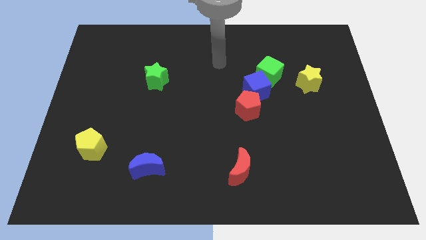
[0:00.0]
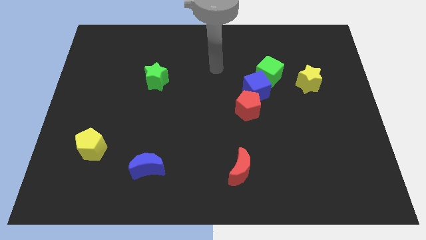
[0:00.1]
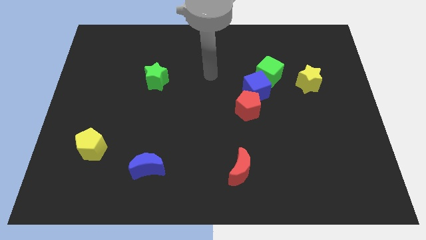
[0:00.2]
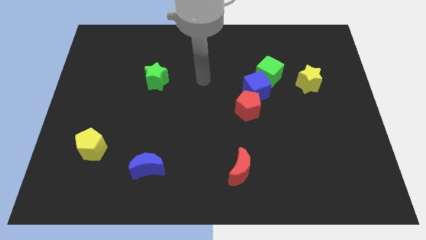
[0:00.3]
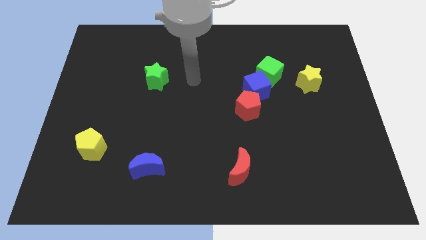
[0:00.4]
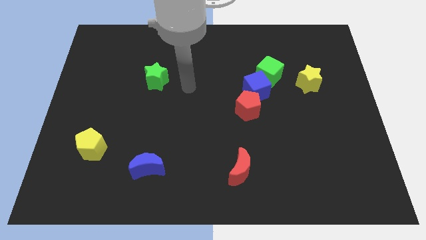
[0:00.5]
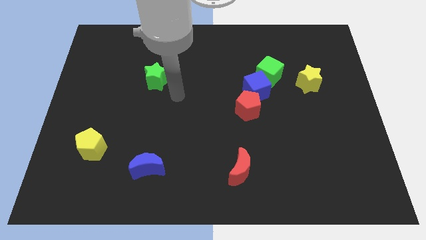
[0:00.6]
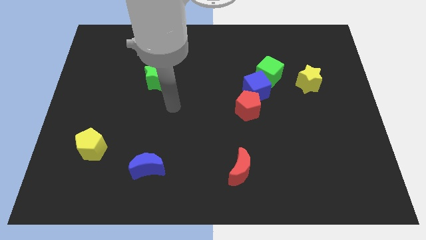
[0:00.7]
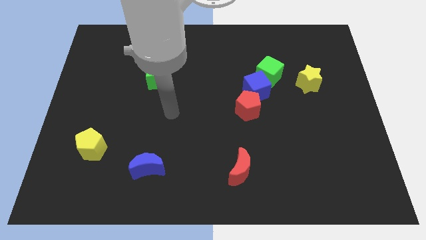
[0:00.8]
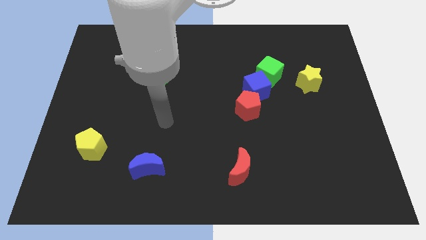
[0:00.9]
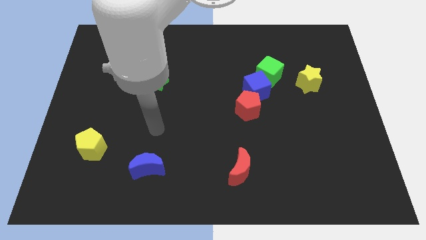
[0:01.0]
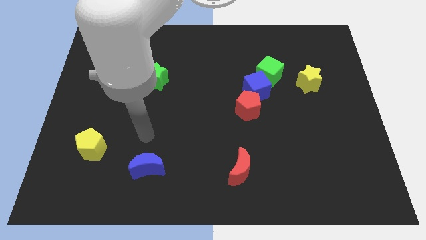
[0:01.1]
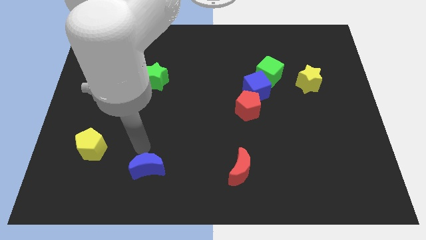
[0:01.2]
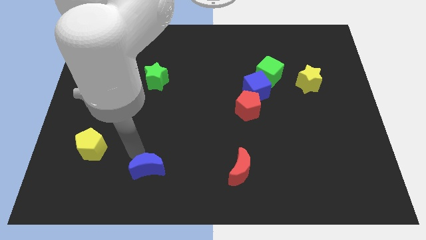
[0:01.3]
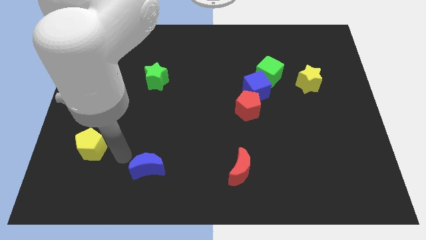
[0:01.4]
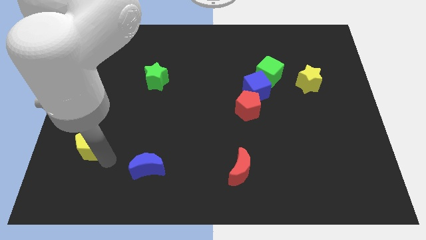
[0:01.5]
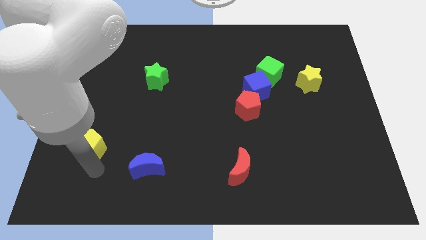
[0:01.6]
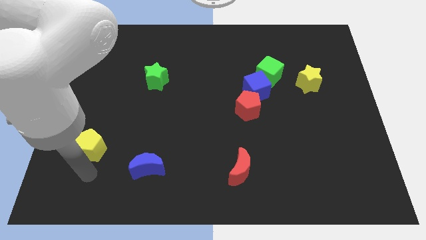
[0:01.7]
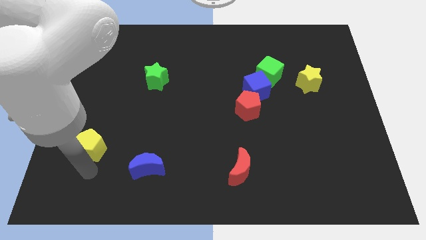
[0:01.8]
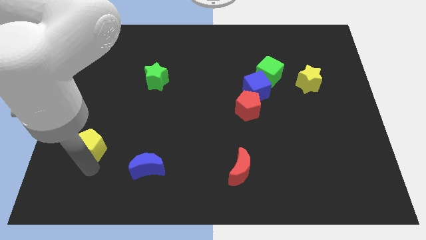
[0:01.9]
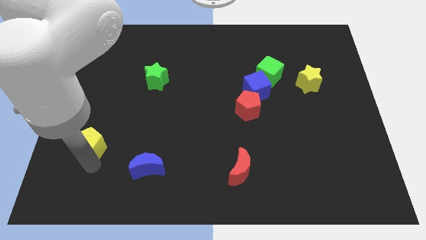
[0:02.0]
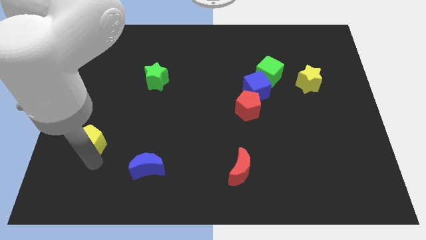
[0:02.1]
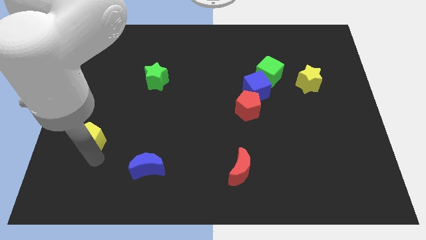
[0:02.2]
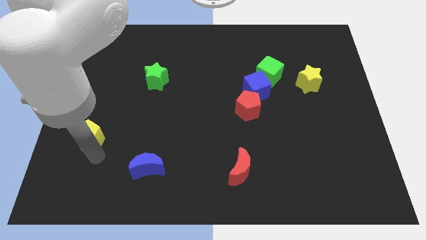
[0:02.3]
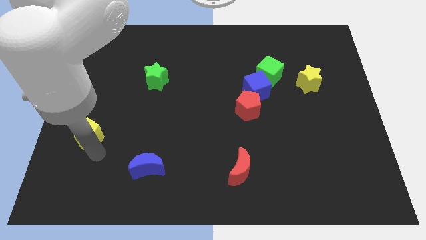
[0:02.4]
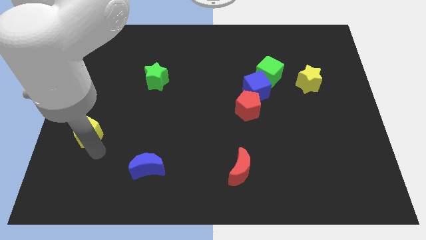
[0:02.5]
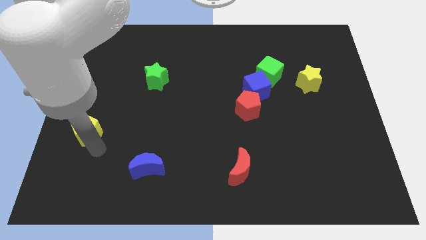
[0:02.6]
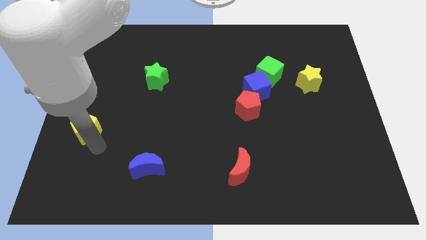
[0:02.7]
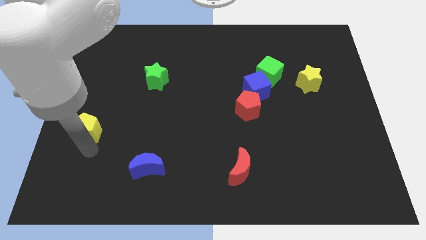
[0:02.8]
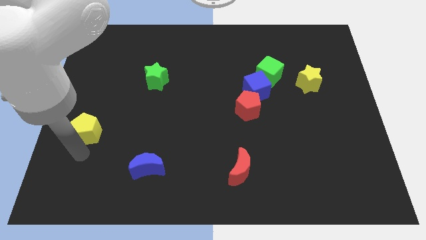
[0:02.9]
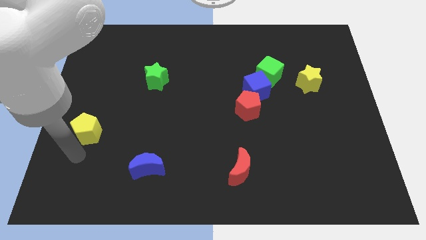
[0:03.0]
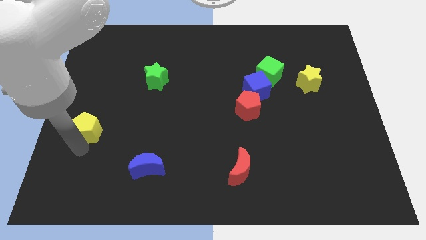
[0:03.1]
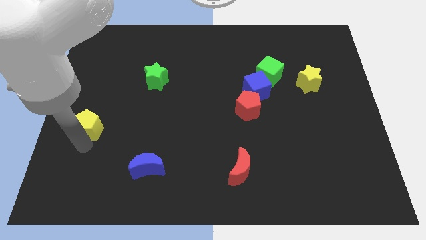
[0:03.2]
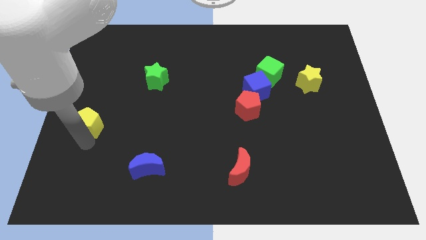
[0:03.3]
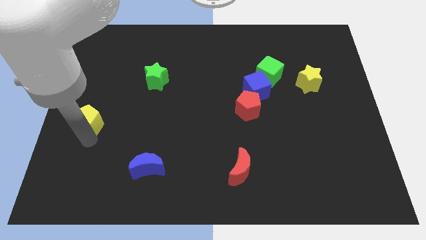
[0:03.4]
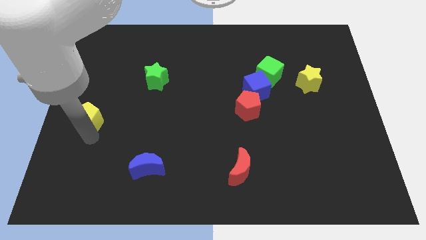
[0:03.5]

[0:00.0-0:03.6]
slightly slide the yellow pentagon upwards

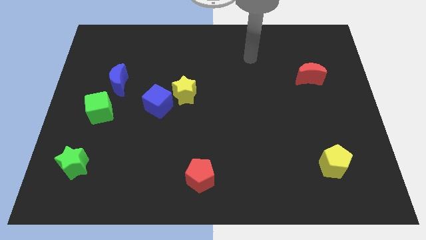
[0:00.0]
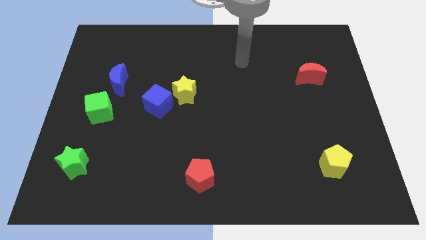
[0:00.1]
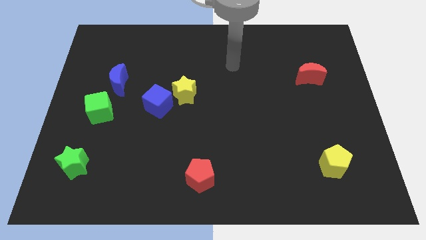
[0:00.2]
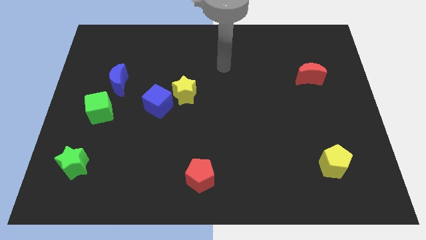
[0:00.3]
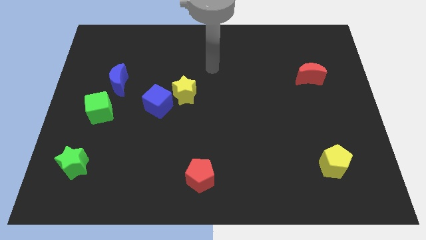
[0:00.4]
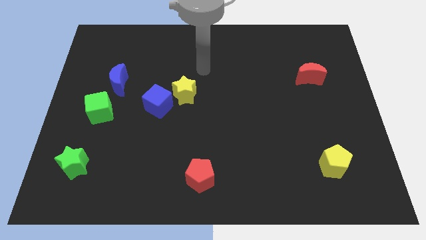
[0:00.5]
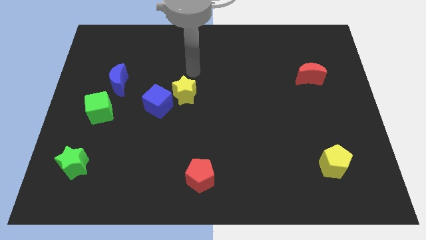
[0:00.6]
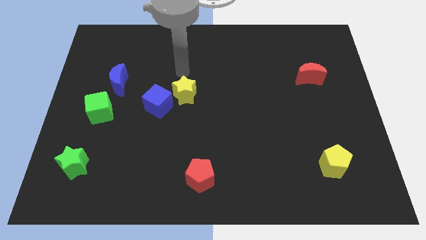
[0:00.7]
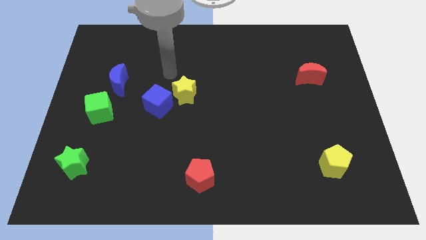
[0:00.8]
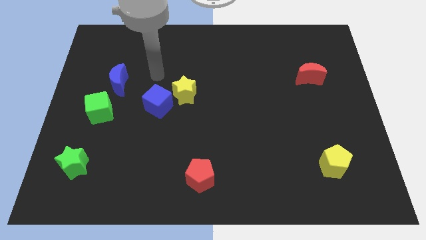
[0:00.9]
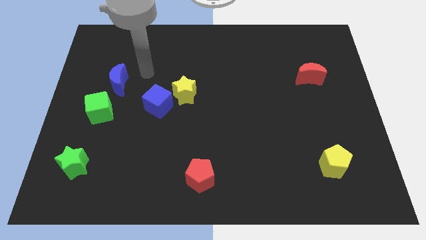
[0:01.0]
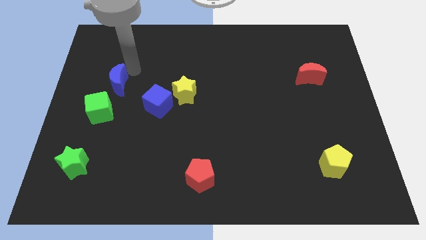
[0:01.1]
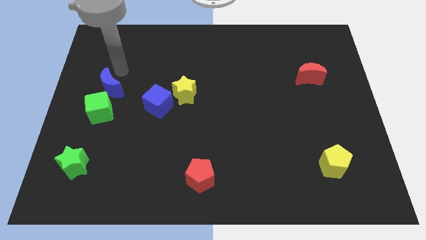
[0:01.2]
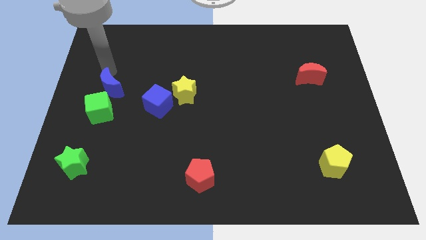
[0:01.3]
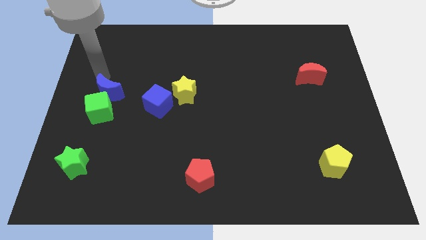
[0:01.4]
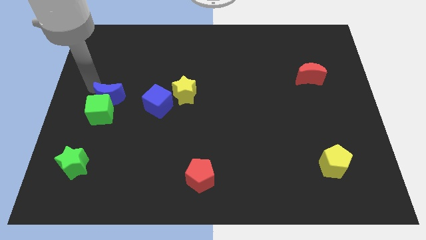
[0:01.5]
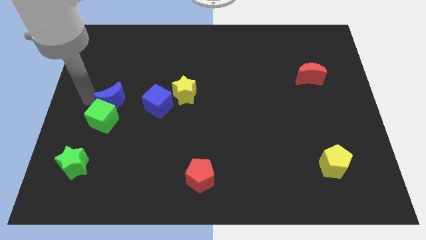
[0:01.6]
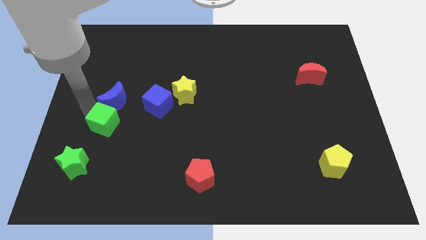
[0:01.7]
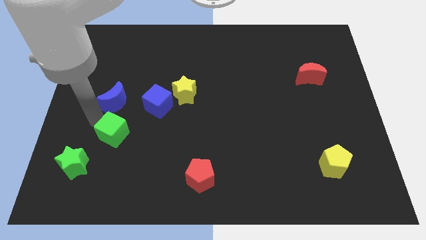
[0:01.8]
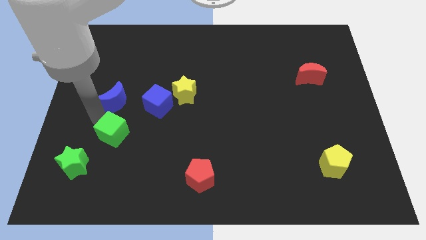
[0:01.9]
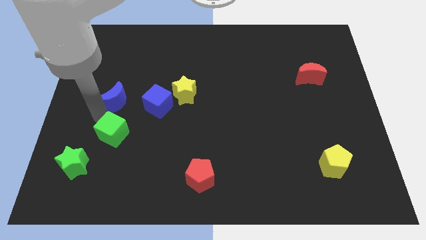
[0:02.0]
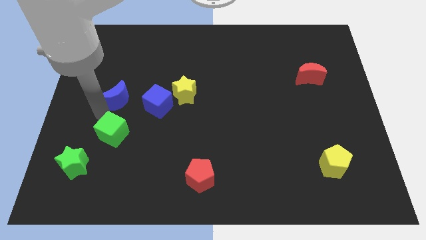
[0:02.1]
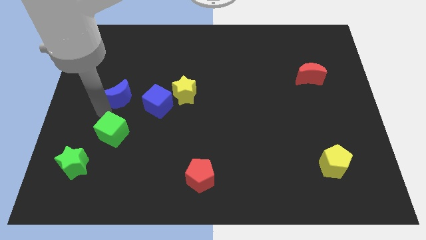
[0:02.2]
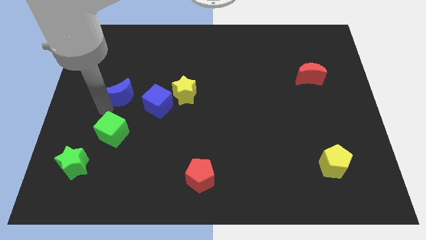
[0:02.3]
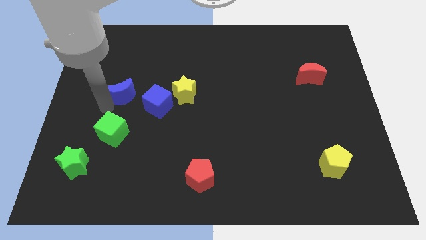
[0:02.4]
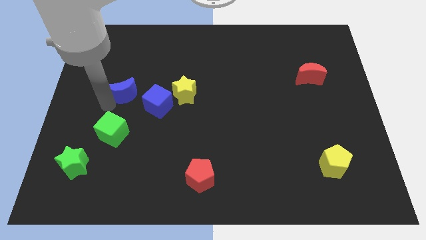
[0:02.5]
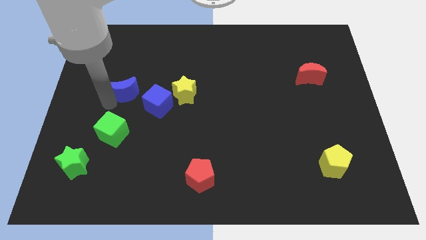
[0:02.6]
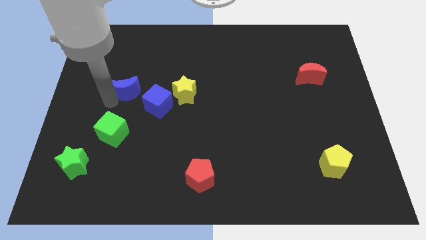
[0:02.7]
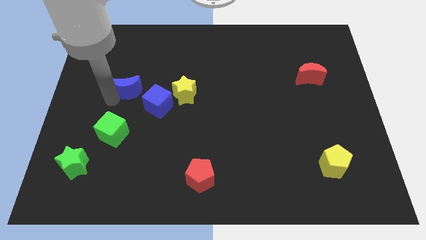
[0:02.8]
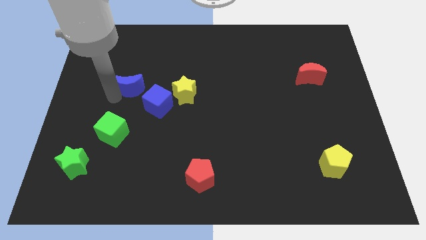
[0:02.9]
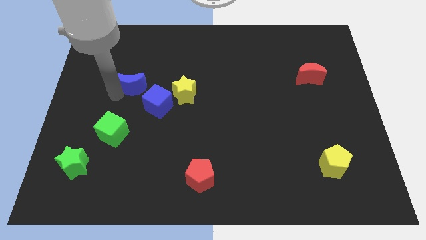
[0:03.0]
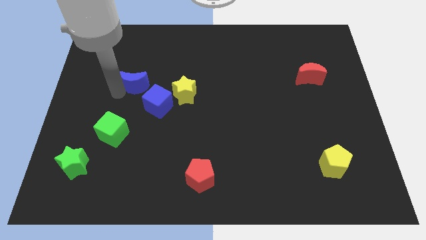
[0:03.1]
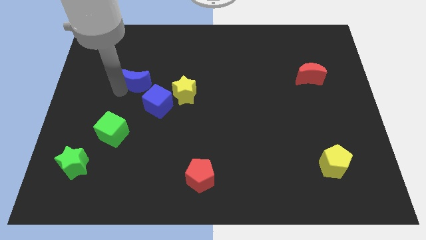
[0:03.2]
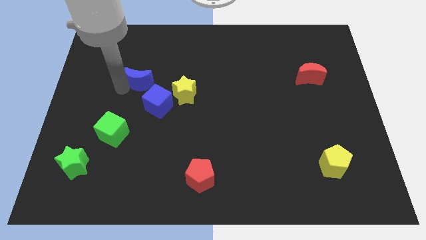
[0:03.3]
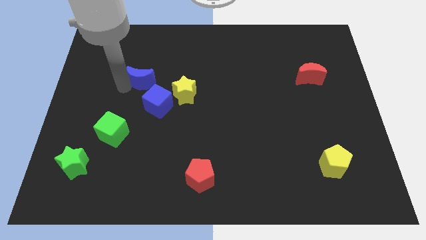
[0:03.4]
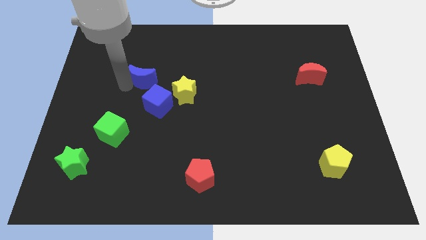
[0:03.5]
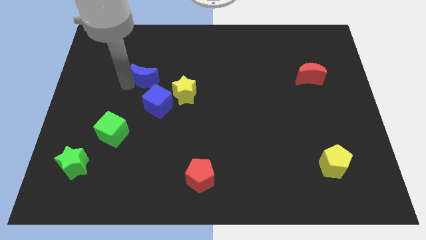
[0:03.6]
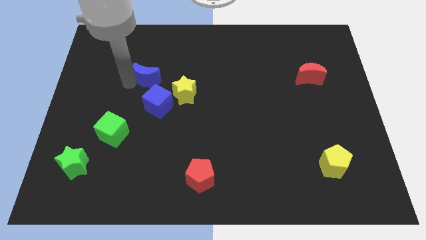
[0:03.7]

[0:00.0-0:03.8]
slightly move the blue moon to the right

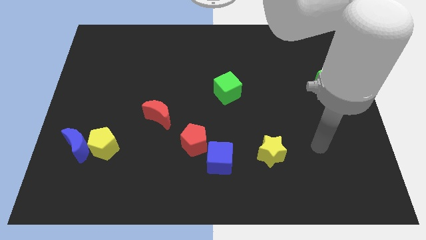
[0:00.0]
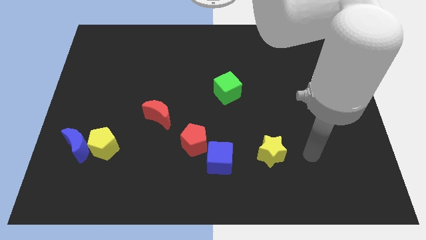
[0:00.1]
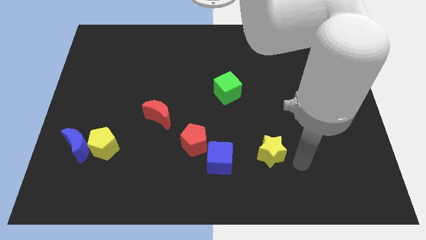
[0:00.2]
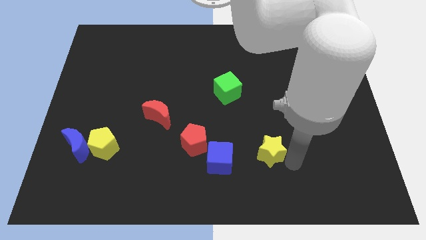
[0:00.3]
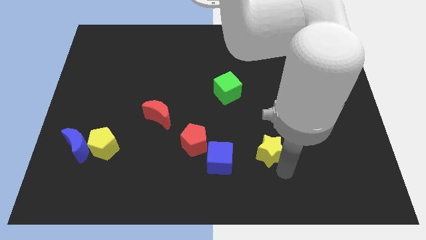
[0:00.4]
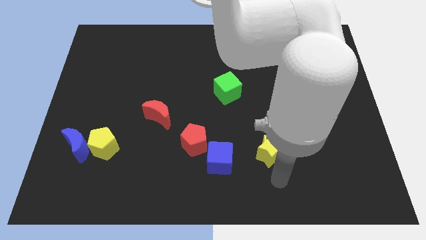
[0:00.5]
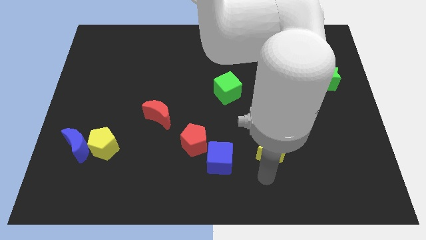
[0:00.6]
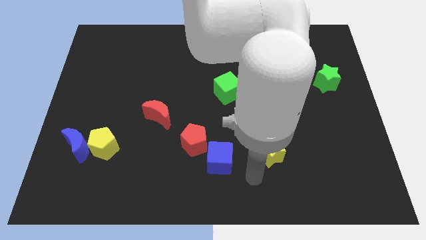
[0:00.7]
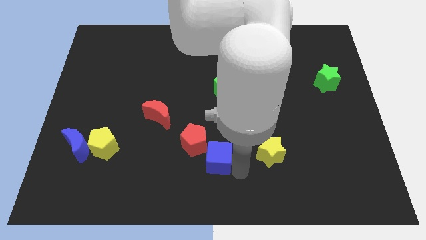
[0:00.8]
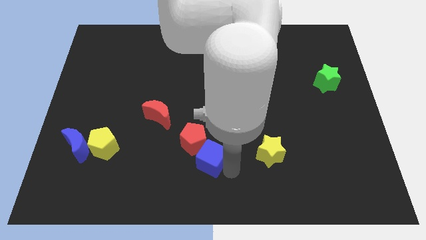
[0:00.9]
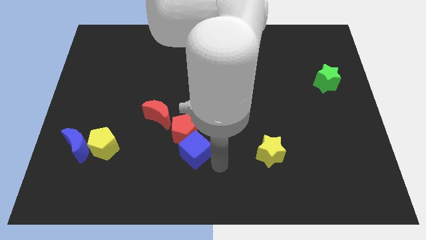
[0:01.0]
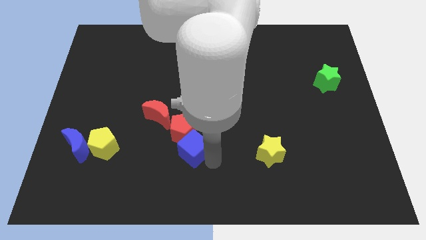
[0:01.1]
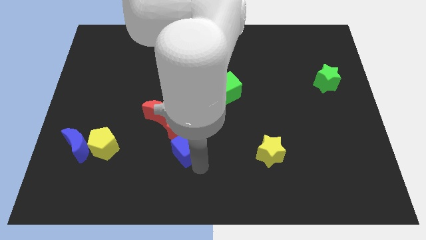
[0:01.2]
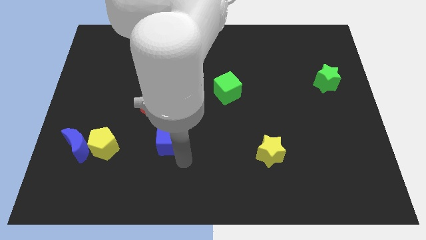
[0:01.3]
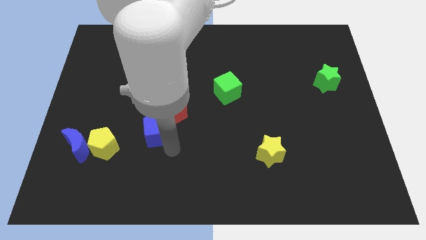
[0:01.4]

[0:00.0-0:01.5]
slide the red pentagon a little bit up
